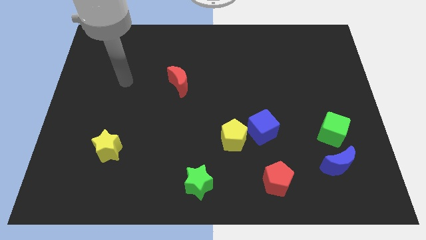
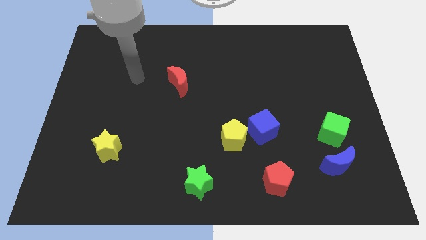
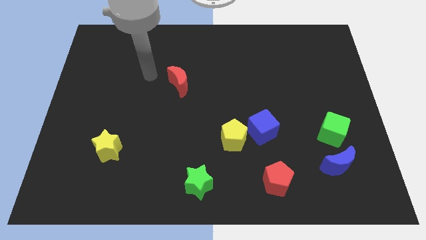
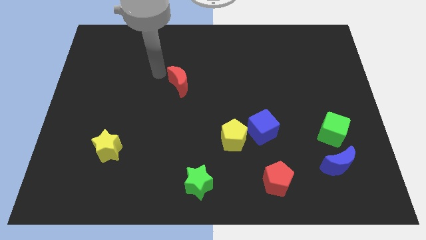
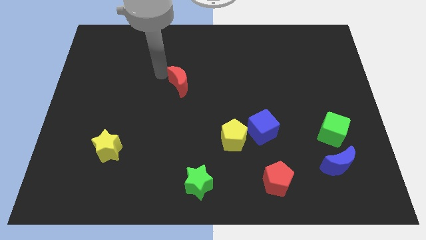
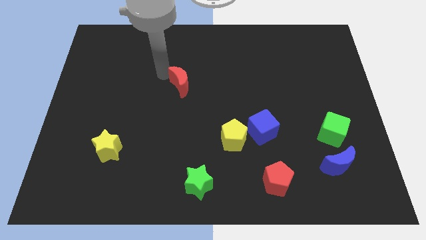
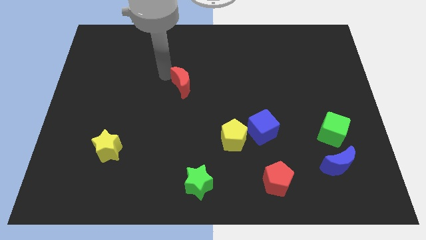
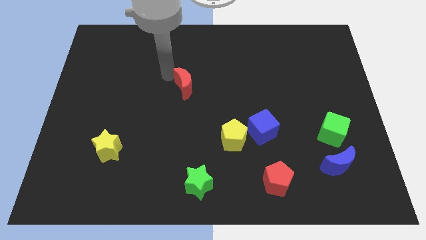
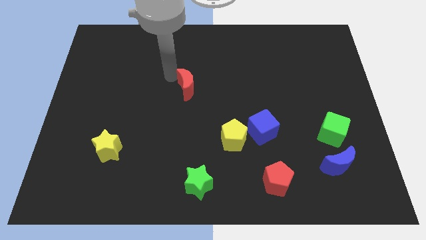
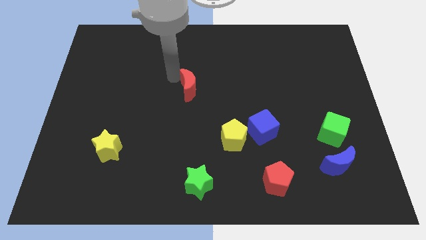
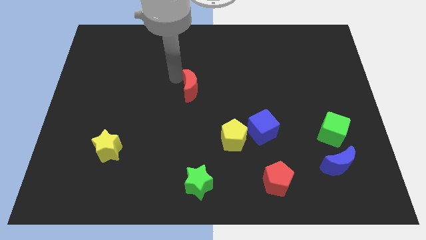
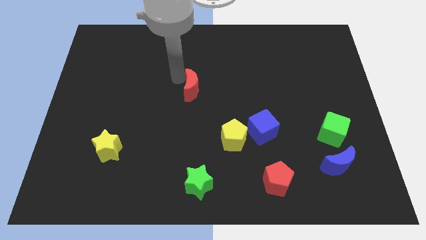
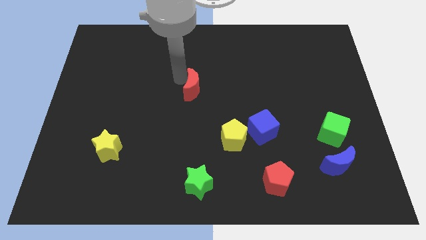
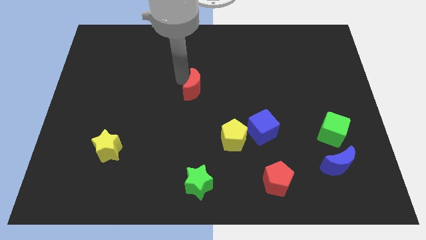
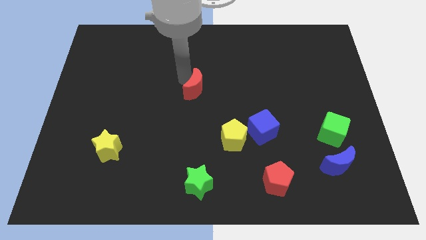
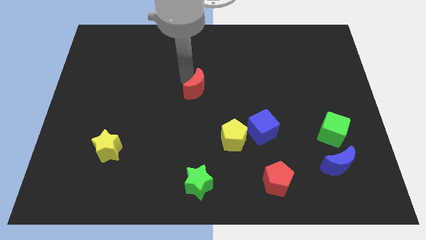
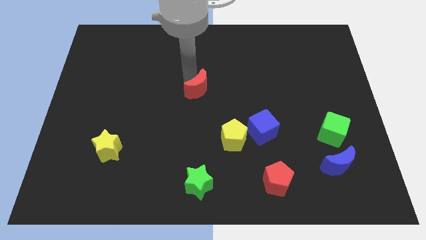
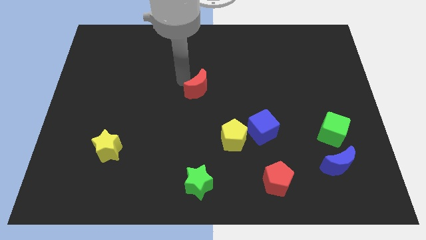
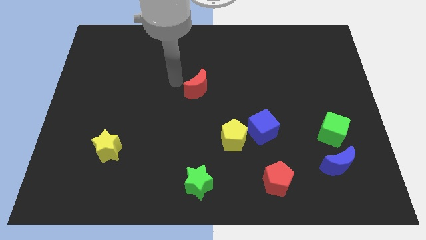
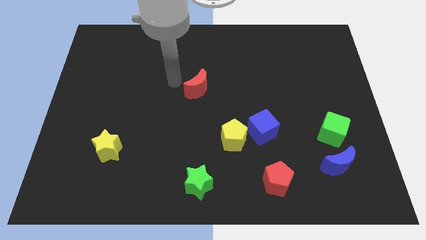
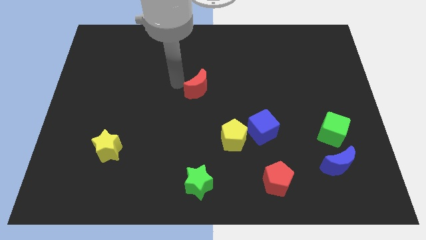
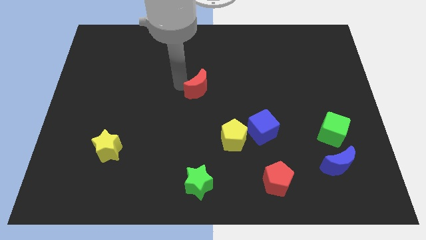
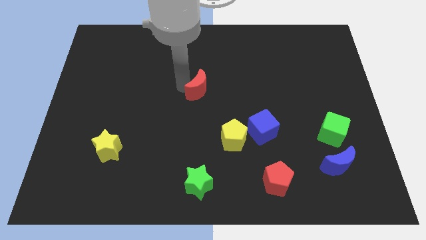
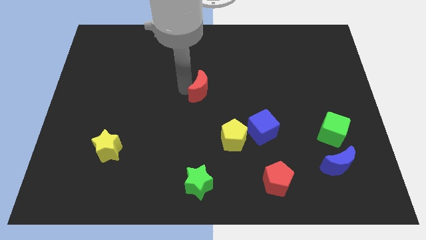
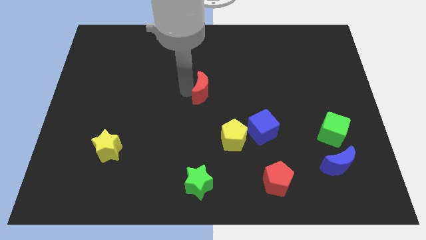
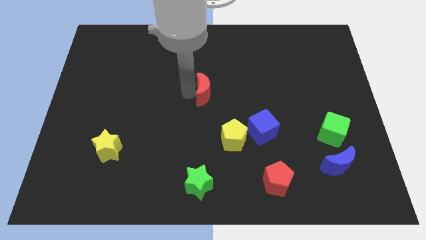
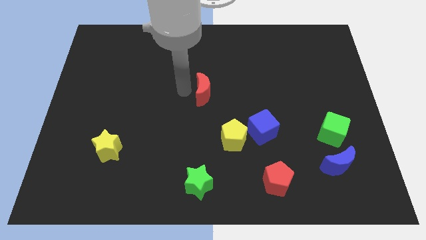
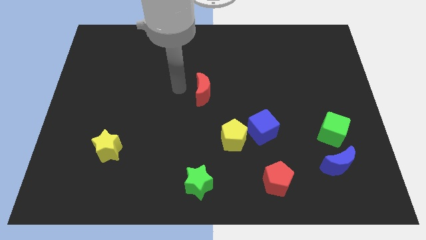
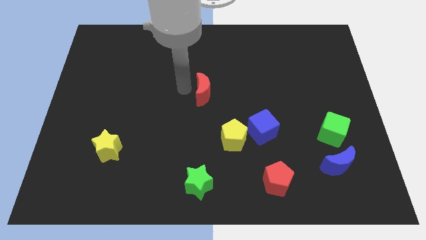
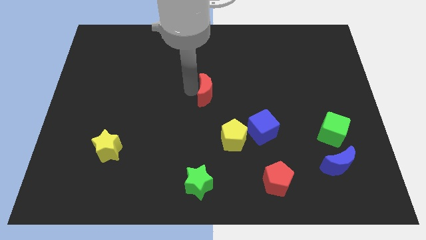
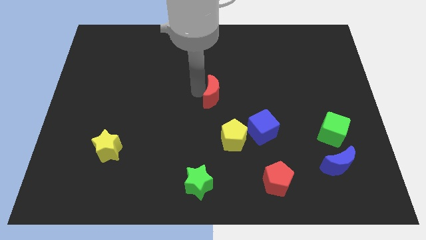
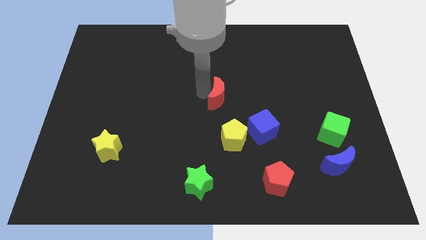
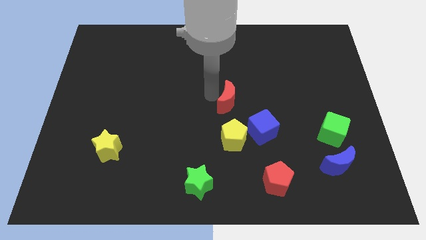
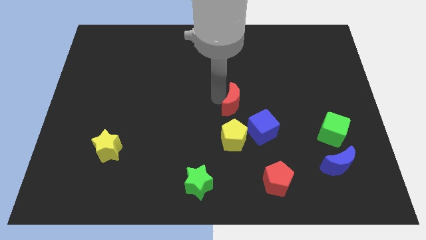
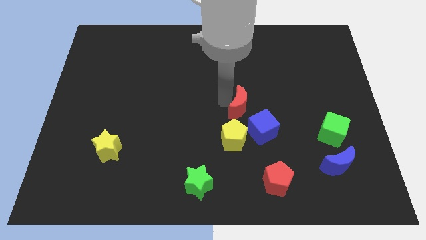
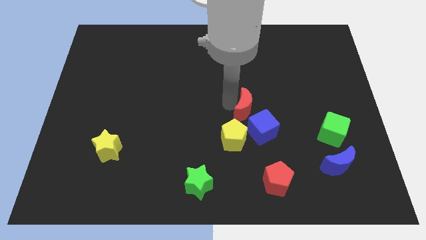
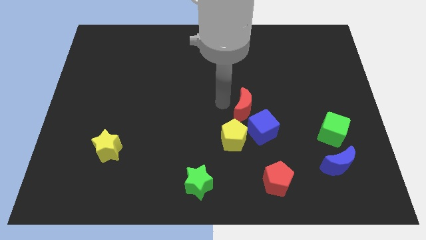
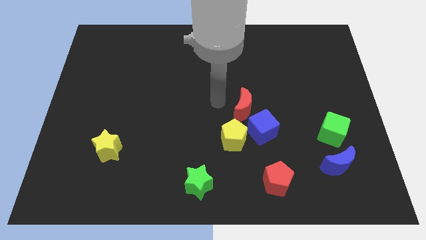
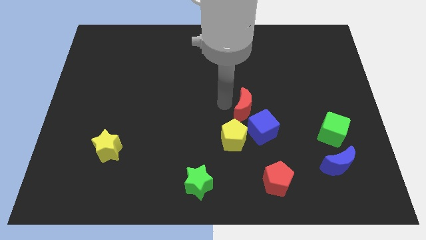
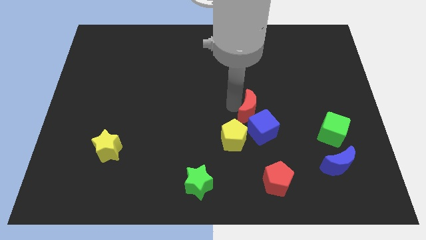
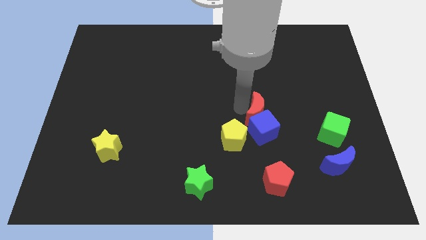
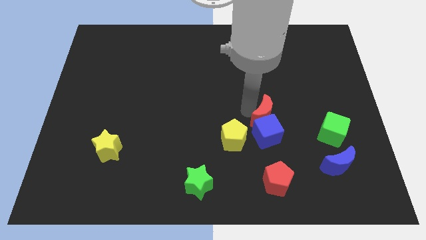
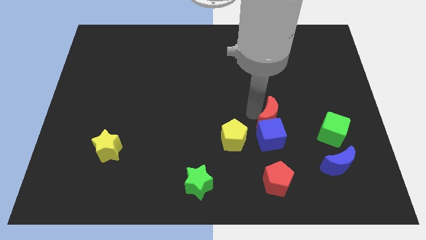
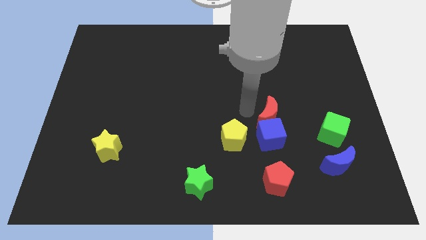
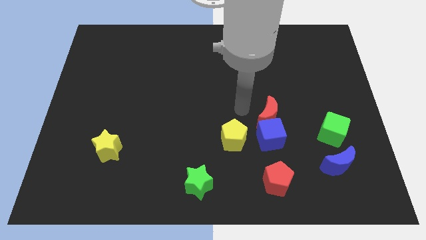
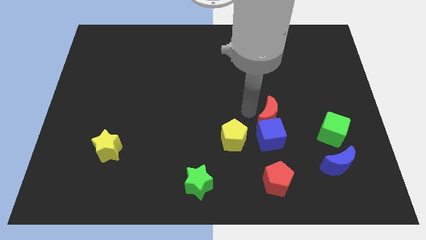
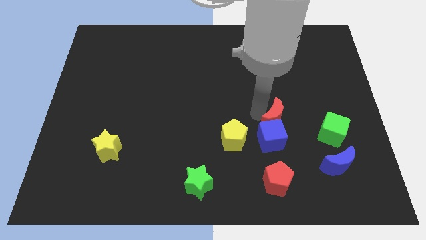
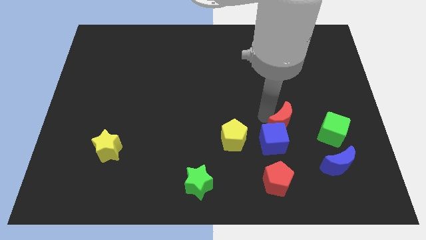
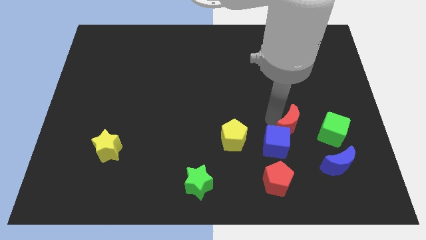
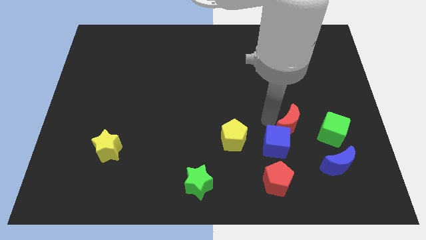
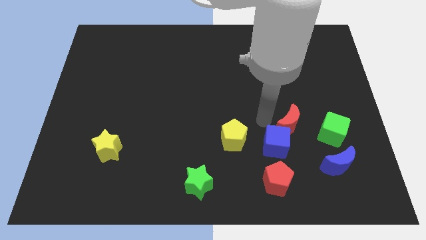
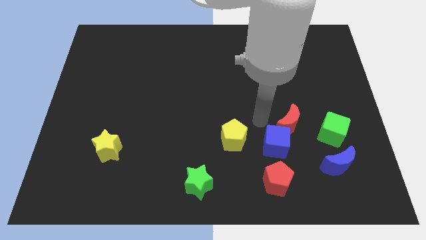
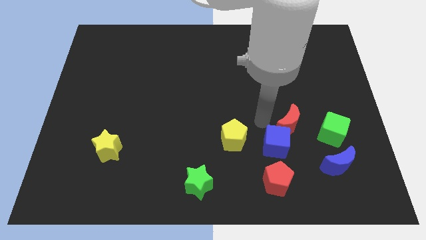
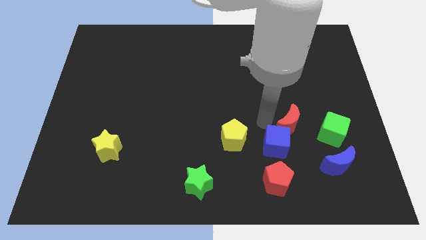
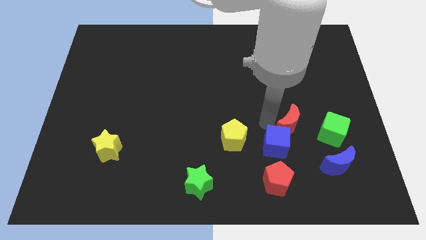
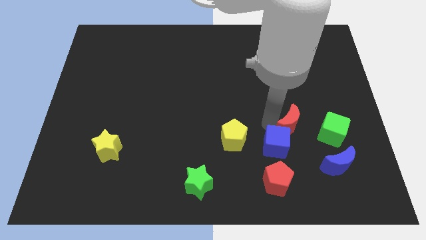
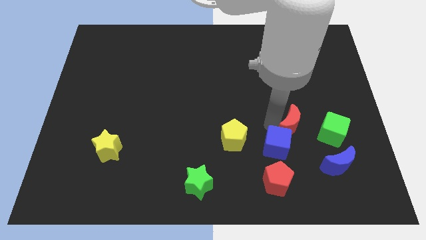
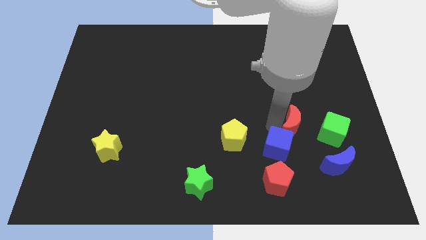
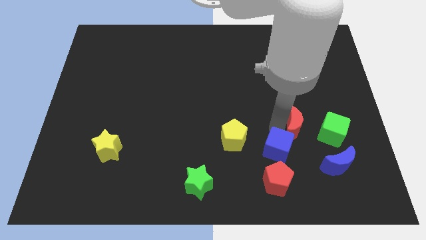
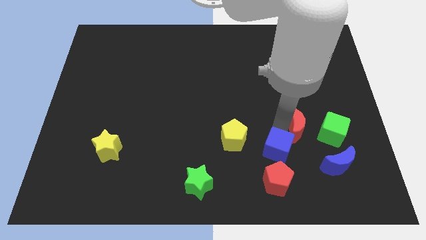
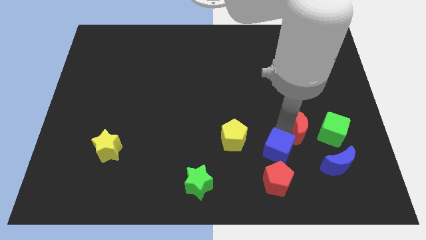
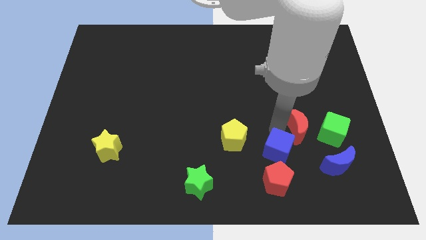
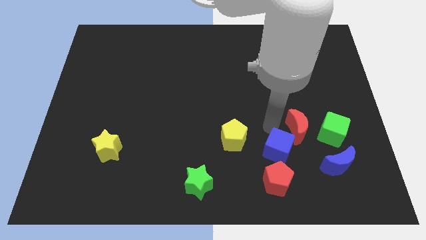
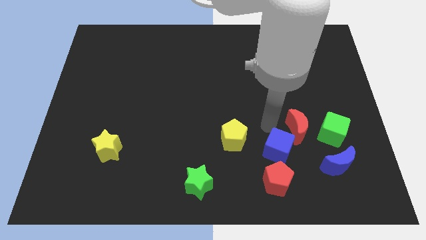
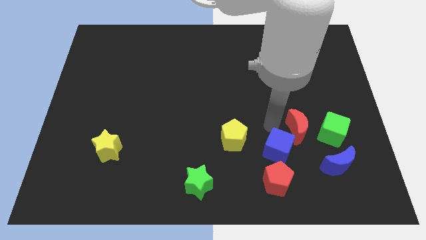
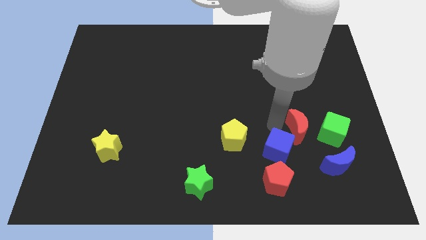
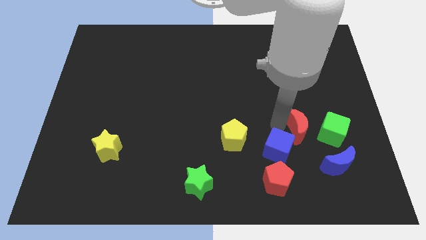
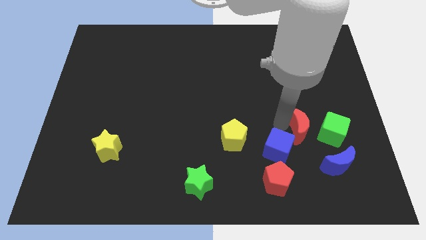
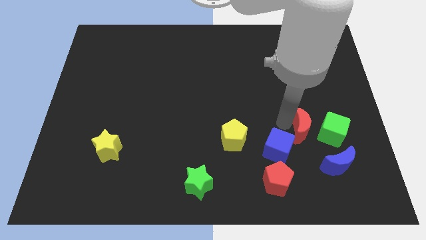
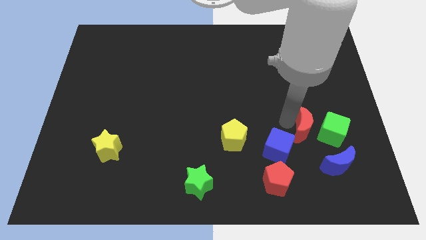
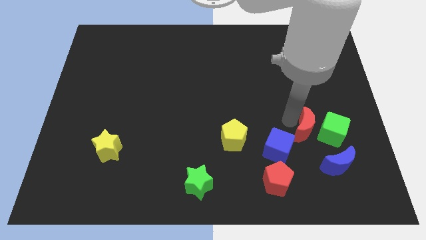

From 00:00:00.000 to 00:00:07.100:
push the red moon towards the green cube

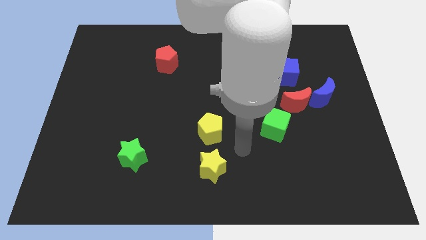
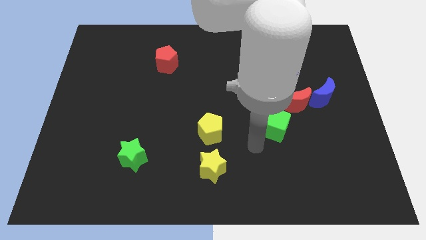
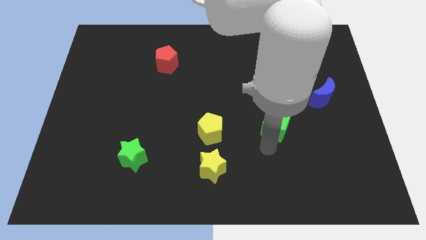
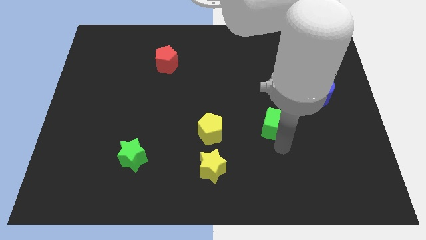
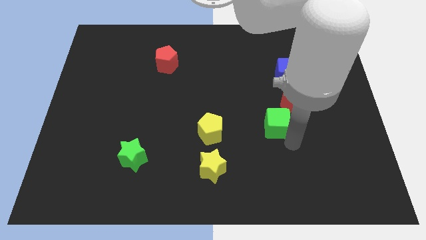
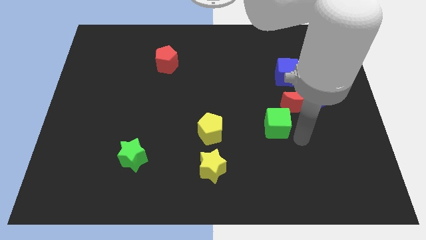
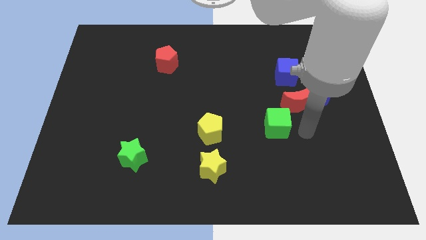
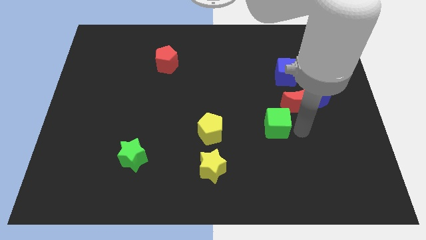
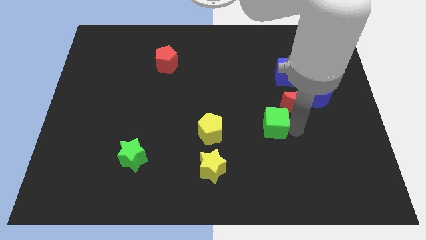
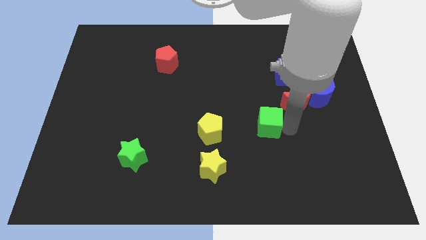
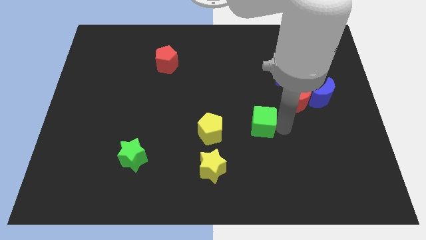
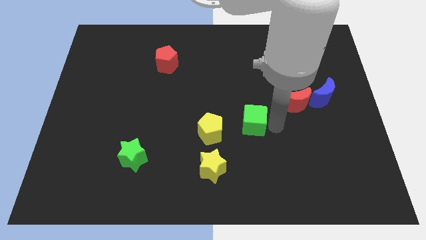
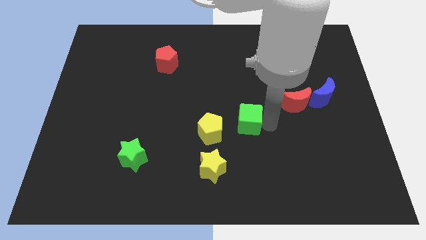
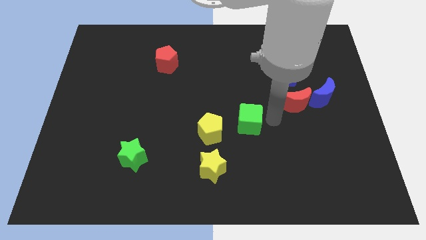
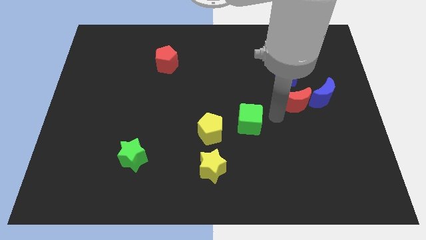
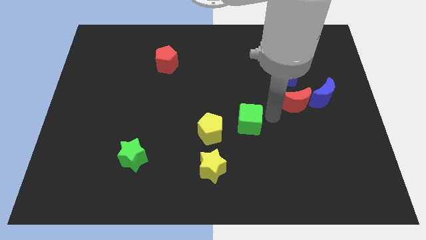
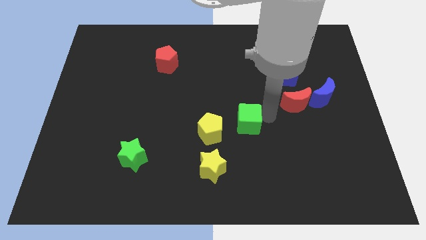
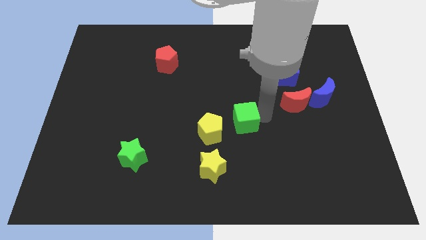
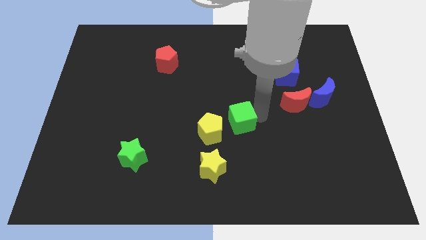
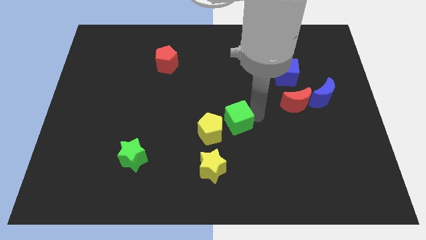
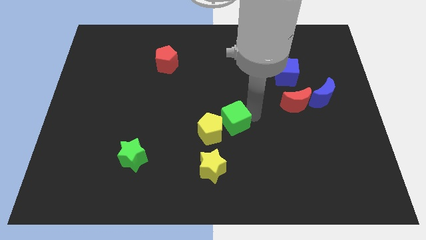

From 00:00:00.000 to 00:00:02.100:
put the green cube to the yellow pentagon
